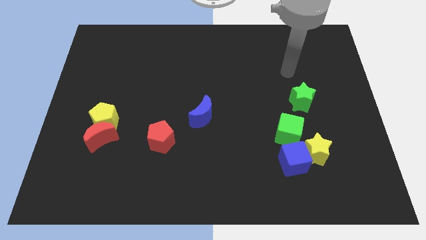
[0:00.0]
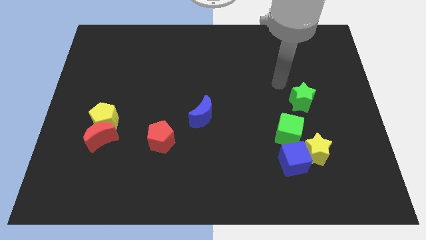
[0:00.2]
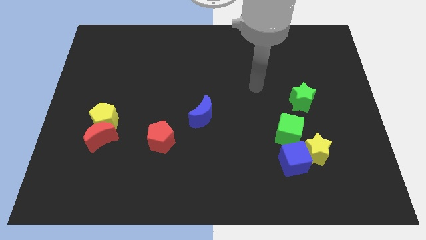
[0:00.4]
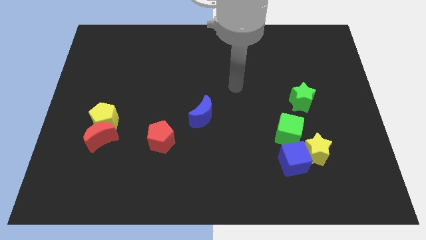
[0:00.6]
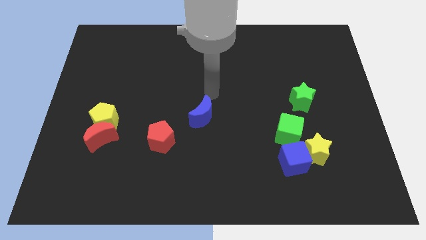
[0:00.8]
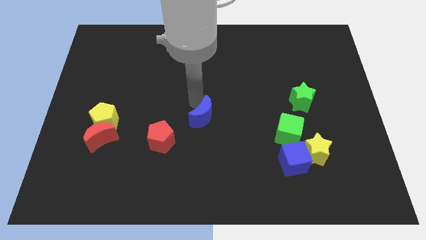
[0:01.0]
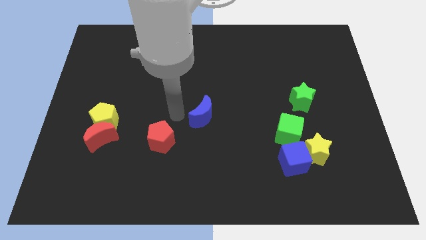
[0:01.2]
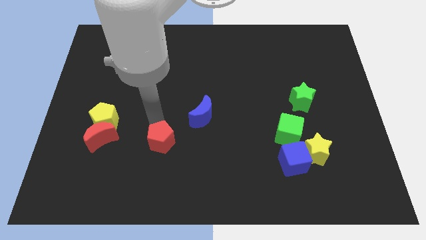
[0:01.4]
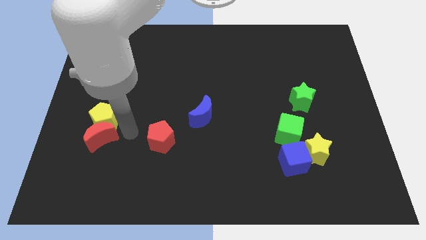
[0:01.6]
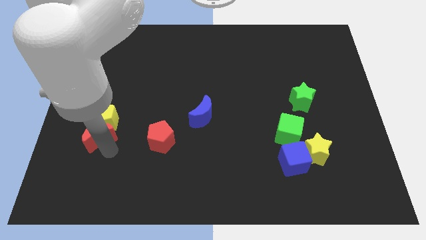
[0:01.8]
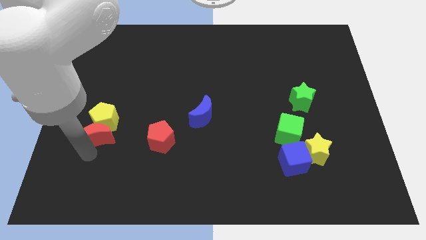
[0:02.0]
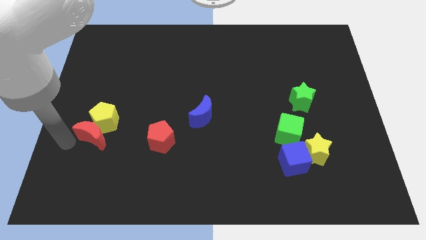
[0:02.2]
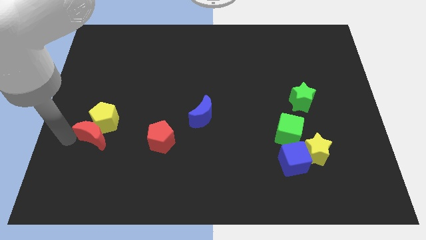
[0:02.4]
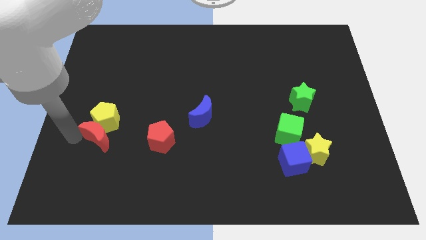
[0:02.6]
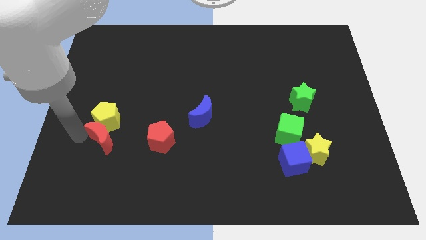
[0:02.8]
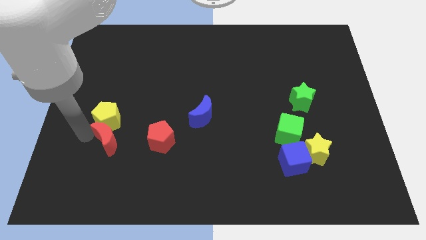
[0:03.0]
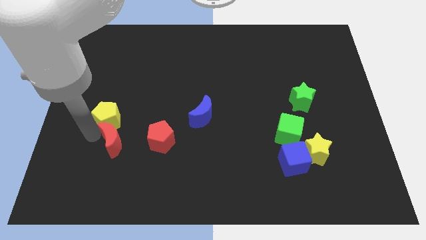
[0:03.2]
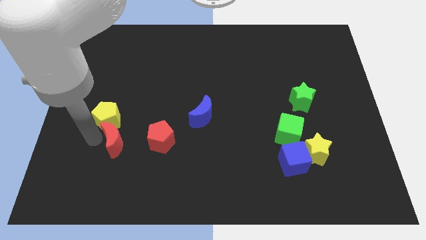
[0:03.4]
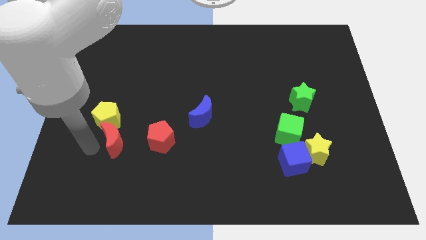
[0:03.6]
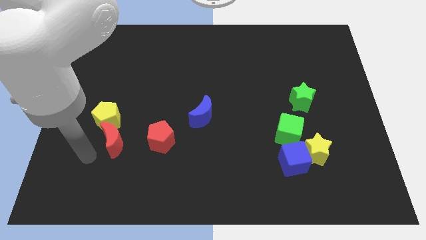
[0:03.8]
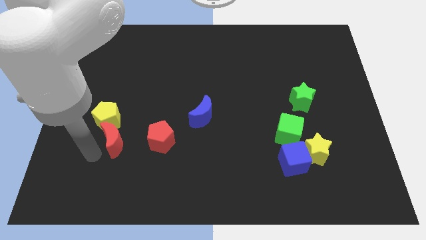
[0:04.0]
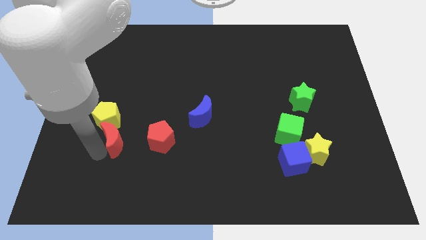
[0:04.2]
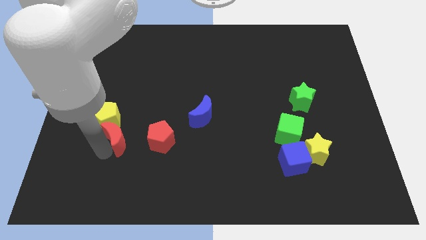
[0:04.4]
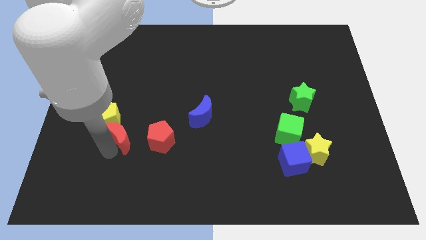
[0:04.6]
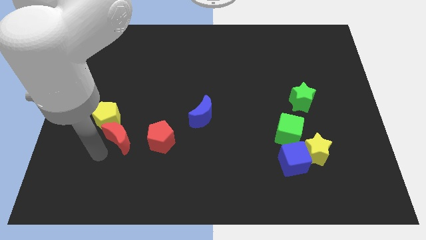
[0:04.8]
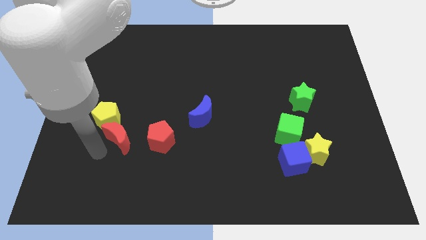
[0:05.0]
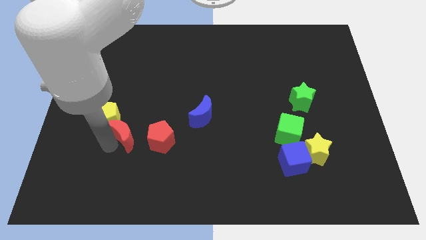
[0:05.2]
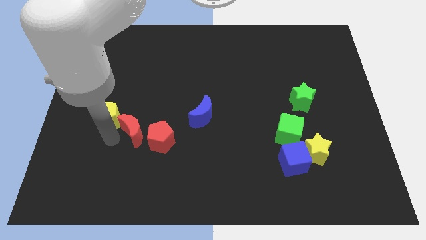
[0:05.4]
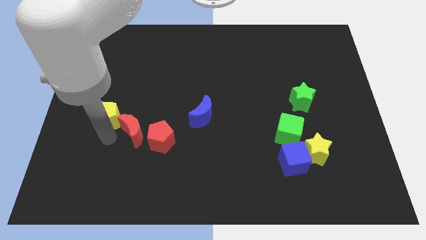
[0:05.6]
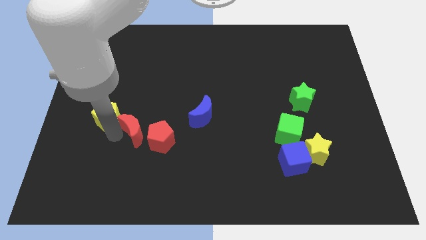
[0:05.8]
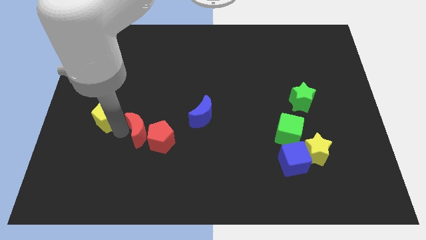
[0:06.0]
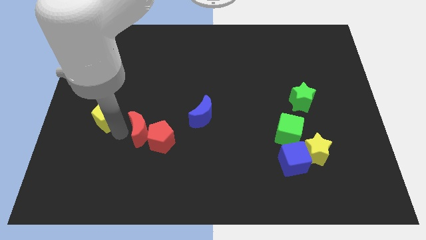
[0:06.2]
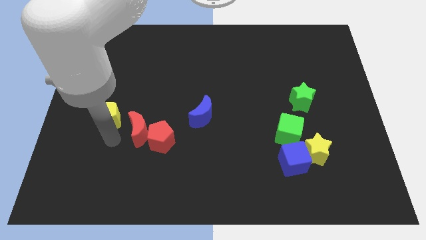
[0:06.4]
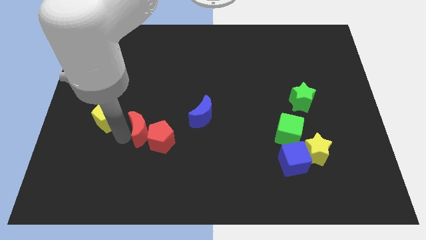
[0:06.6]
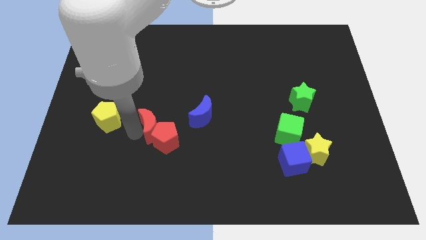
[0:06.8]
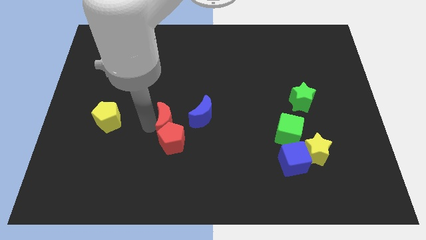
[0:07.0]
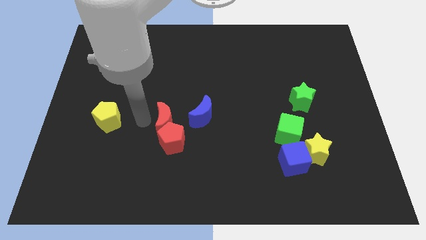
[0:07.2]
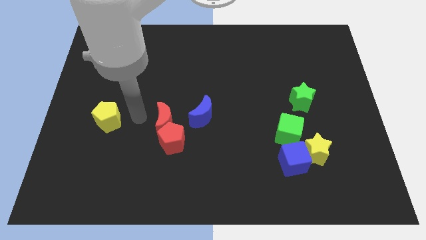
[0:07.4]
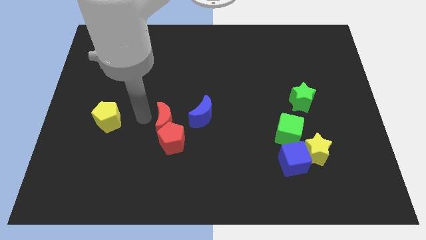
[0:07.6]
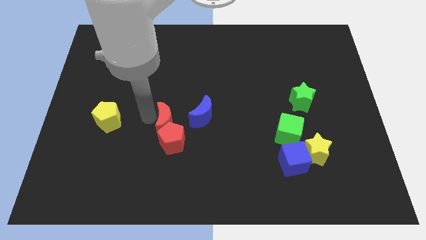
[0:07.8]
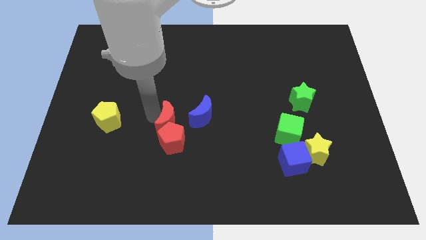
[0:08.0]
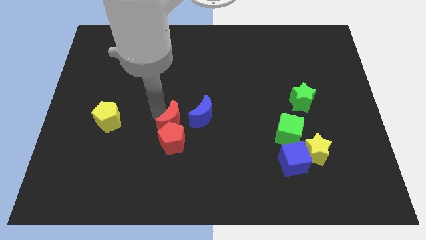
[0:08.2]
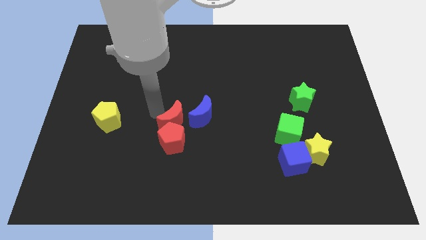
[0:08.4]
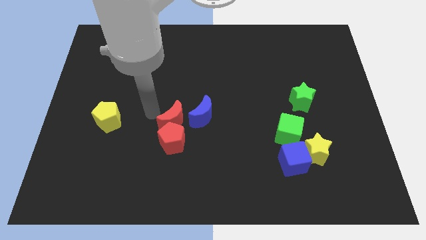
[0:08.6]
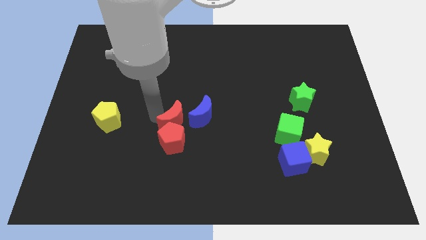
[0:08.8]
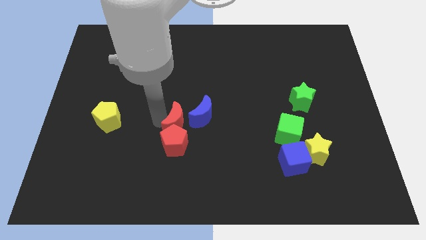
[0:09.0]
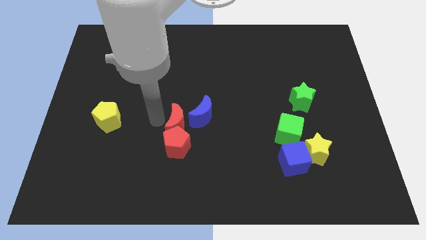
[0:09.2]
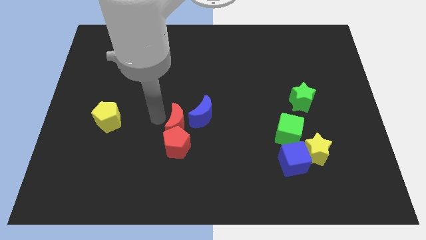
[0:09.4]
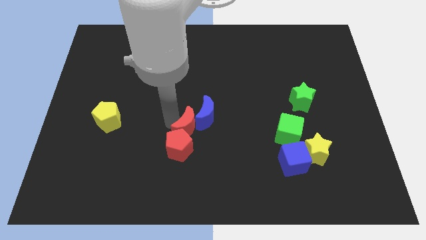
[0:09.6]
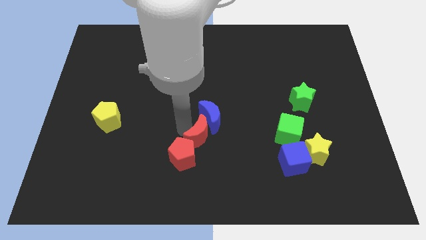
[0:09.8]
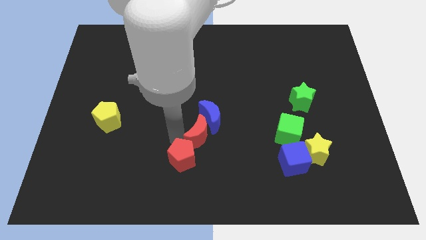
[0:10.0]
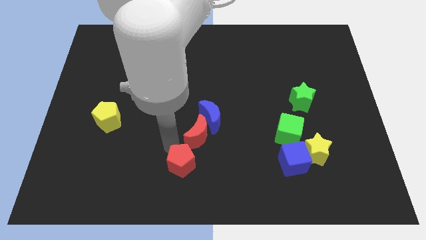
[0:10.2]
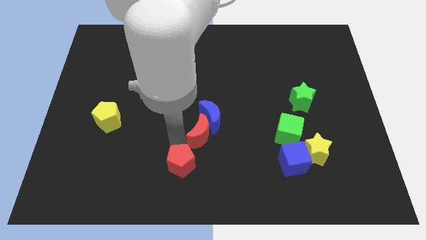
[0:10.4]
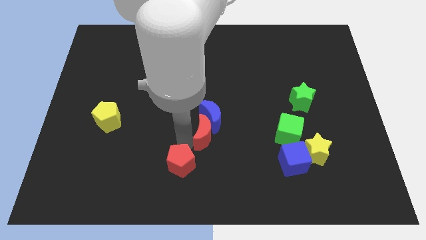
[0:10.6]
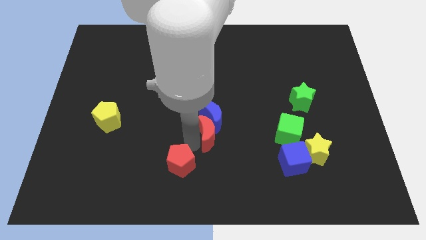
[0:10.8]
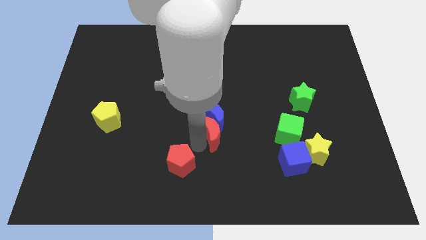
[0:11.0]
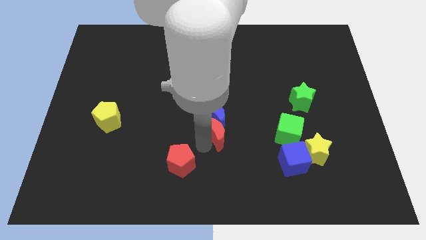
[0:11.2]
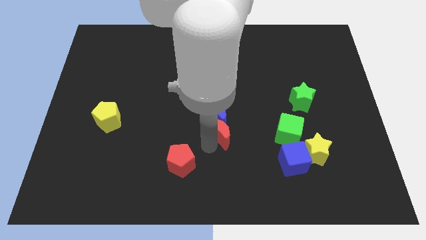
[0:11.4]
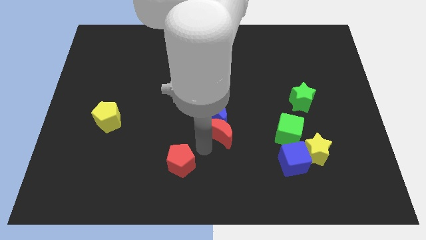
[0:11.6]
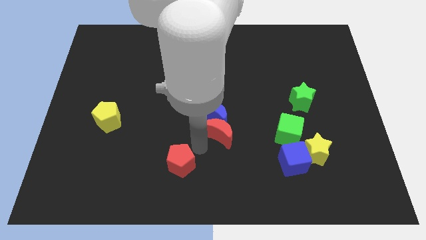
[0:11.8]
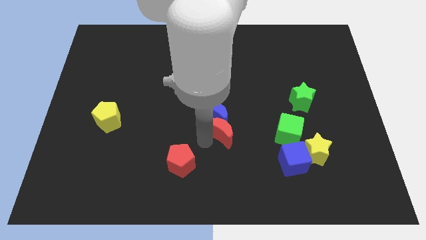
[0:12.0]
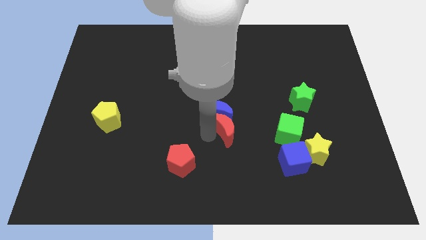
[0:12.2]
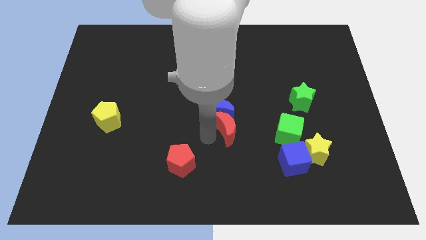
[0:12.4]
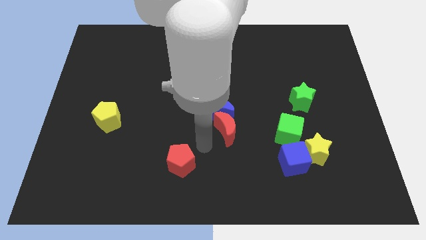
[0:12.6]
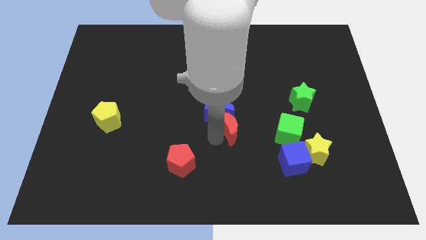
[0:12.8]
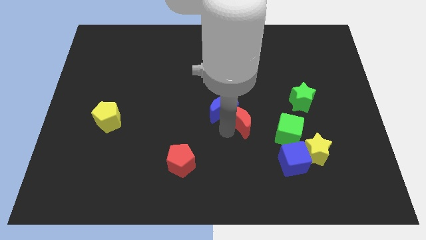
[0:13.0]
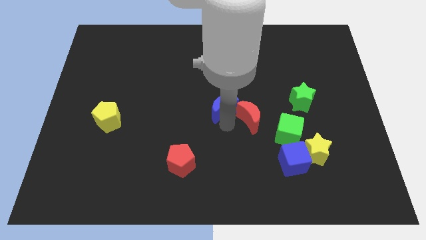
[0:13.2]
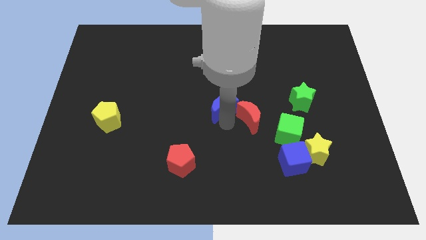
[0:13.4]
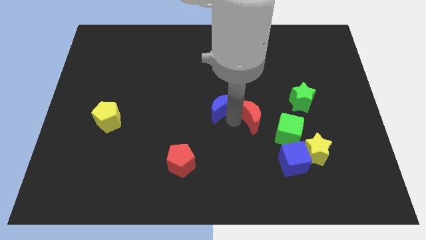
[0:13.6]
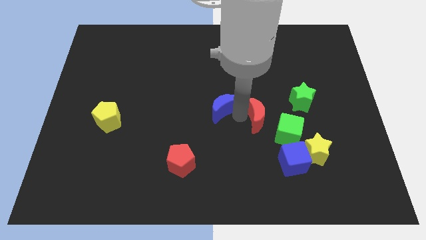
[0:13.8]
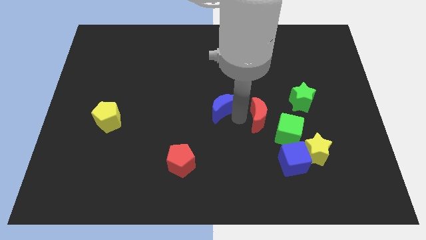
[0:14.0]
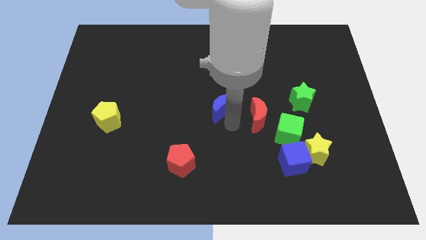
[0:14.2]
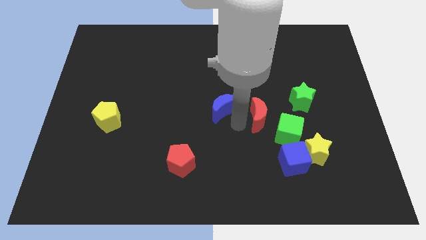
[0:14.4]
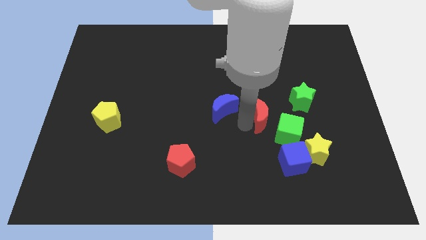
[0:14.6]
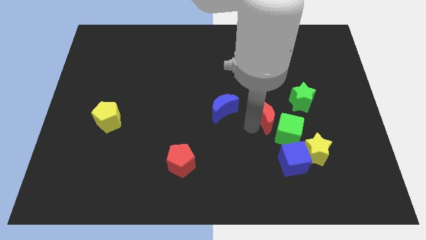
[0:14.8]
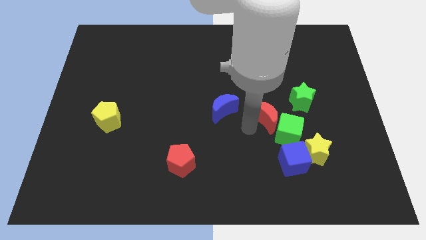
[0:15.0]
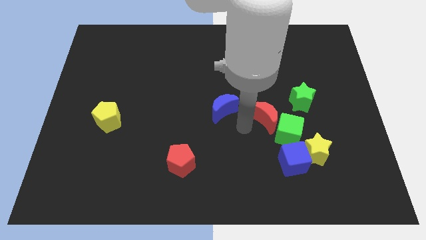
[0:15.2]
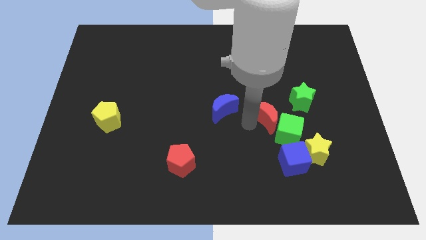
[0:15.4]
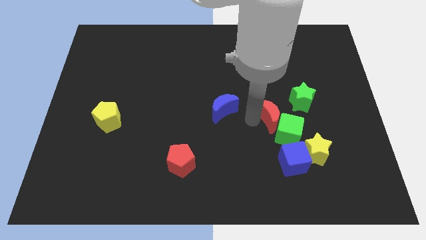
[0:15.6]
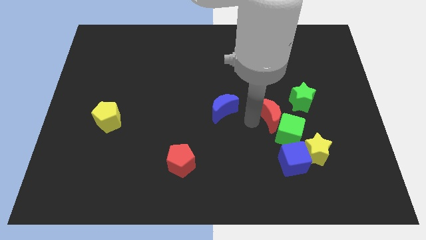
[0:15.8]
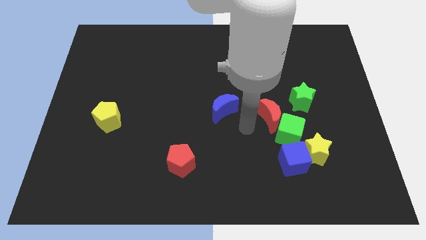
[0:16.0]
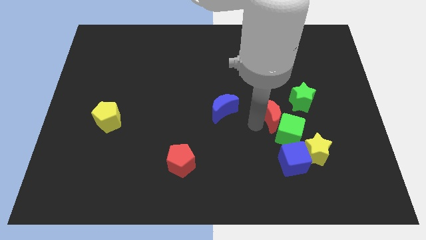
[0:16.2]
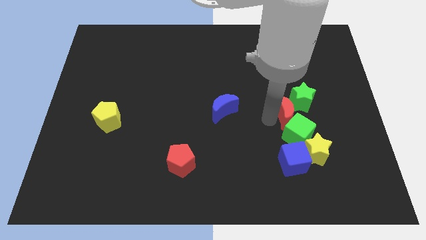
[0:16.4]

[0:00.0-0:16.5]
put the red moon towards the green star
